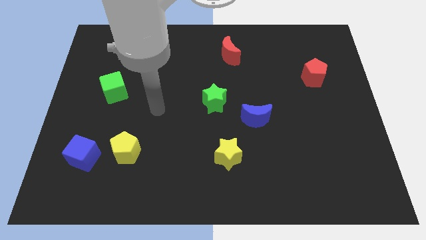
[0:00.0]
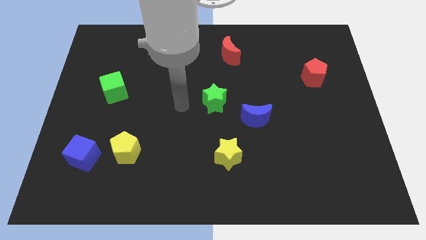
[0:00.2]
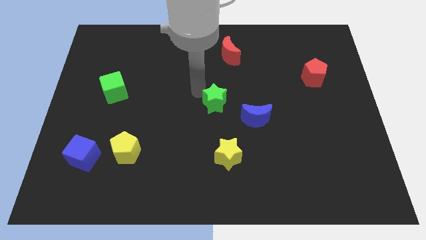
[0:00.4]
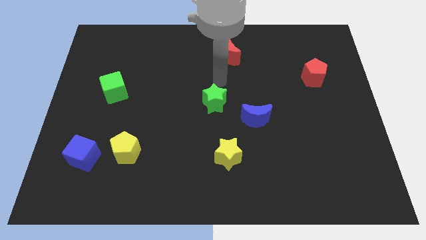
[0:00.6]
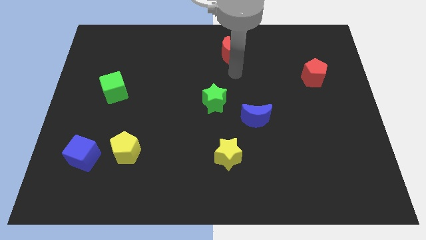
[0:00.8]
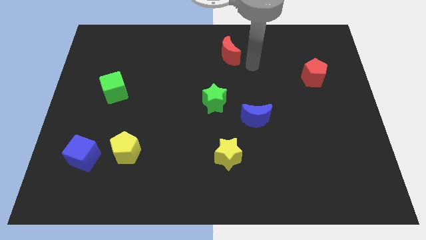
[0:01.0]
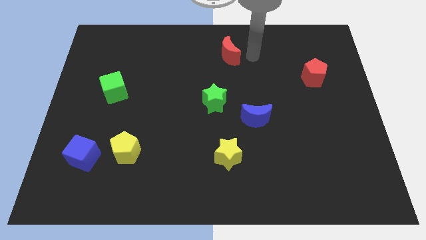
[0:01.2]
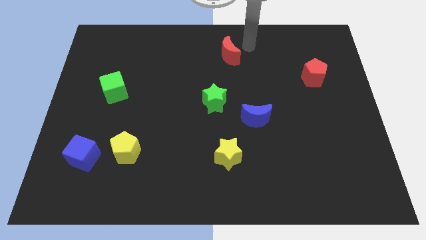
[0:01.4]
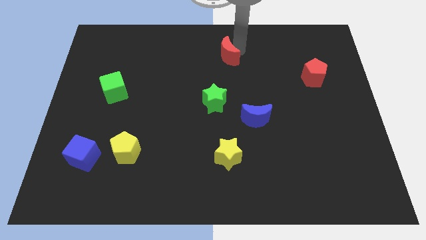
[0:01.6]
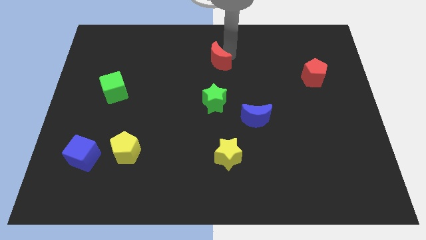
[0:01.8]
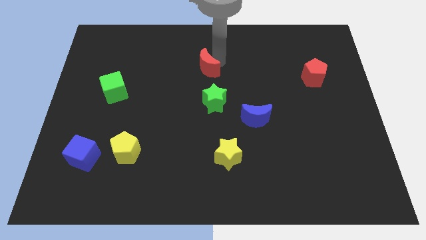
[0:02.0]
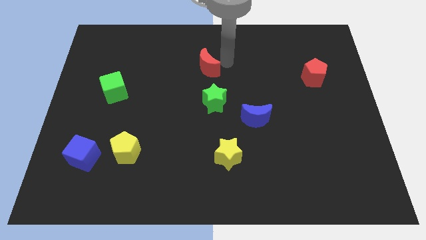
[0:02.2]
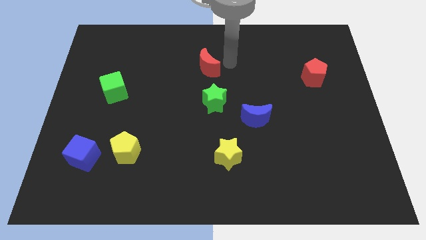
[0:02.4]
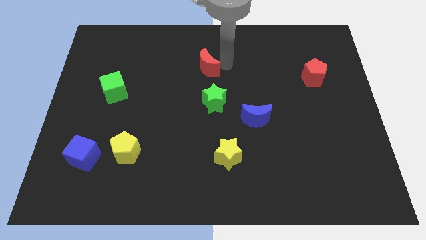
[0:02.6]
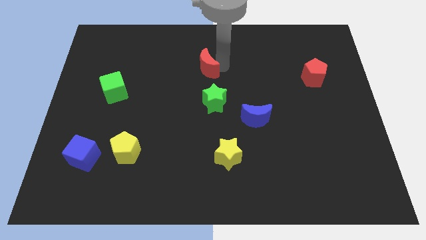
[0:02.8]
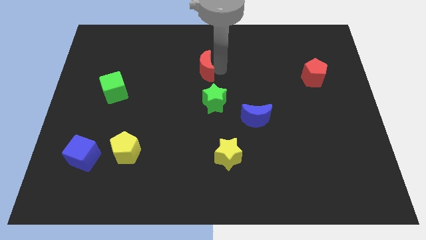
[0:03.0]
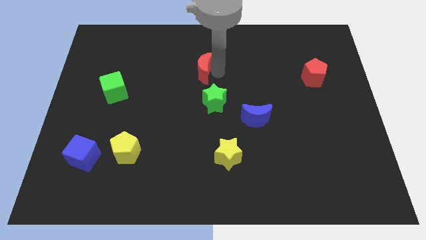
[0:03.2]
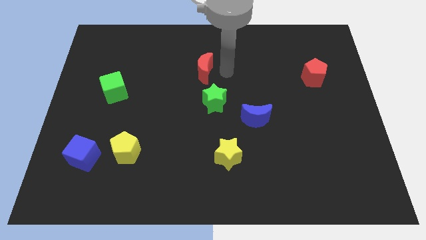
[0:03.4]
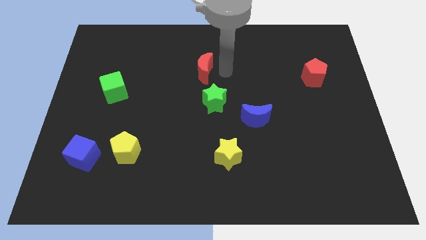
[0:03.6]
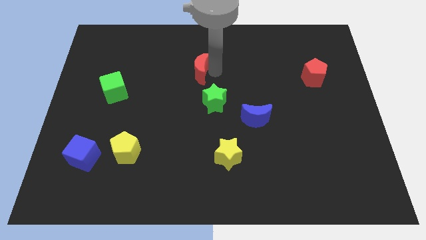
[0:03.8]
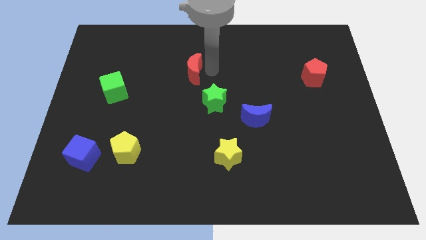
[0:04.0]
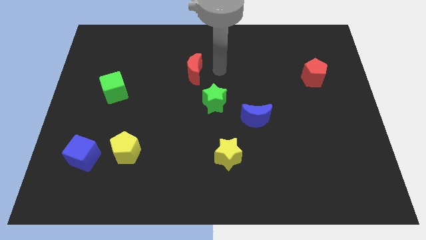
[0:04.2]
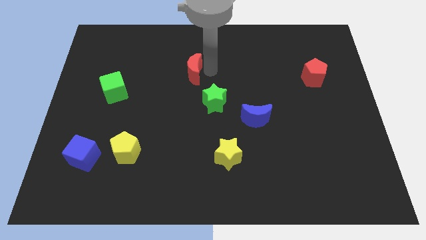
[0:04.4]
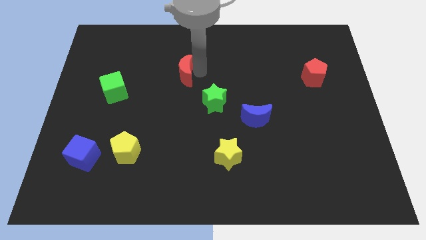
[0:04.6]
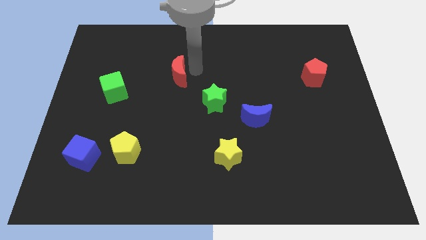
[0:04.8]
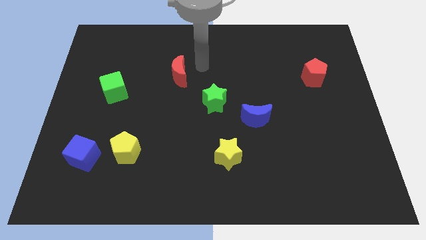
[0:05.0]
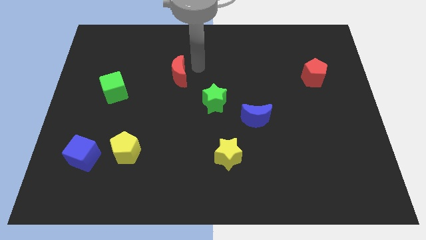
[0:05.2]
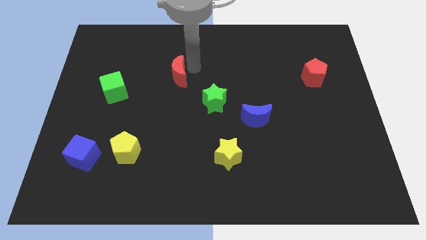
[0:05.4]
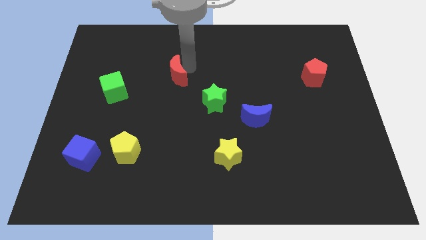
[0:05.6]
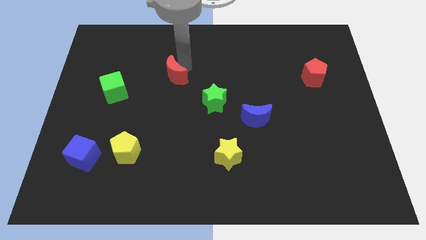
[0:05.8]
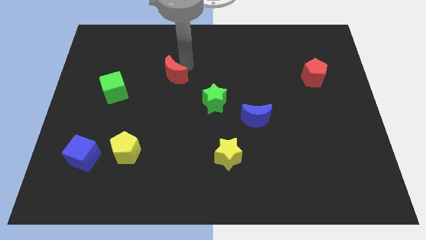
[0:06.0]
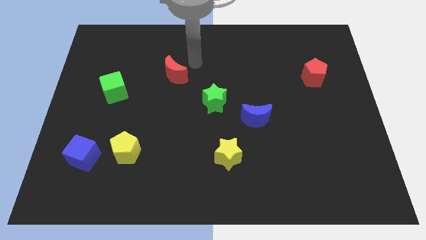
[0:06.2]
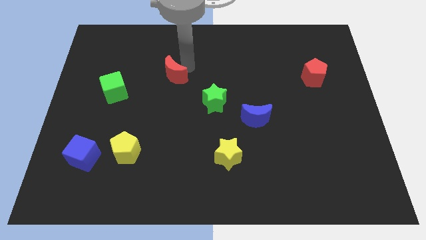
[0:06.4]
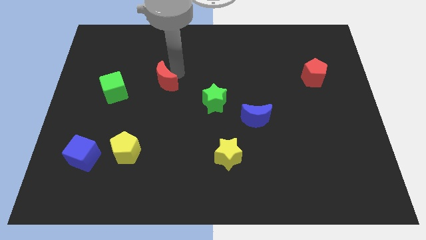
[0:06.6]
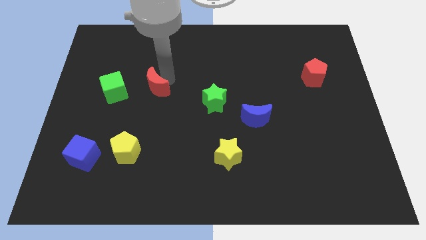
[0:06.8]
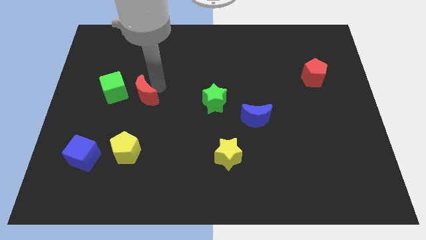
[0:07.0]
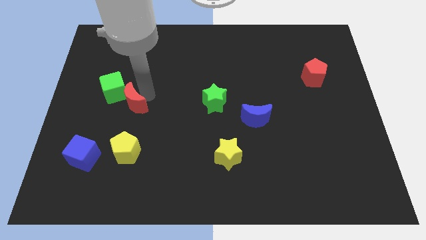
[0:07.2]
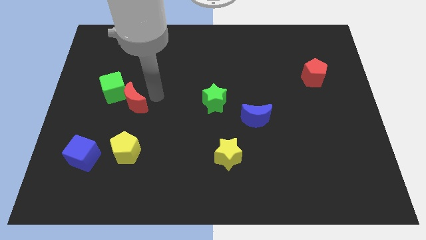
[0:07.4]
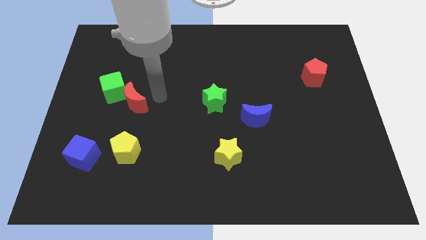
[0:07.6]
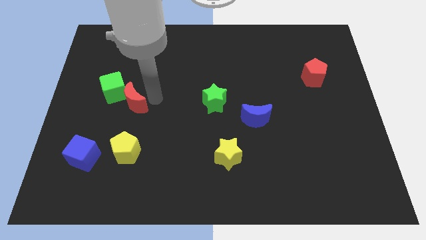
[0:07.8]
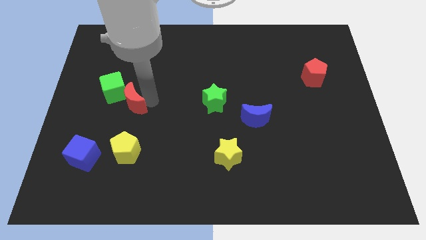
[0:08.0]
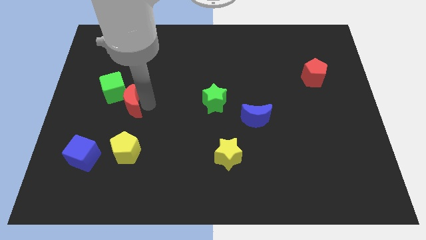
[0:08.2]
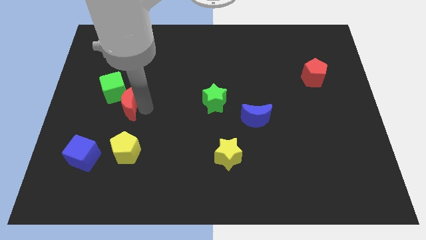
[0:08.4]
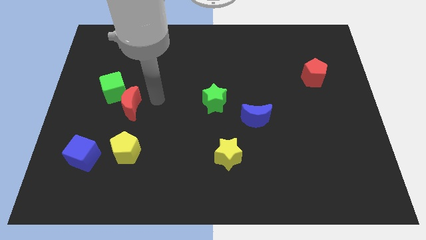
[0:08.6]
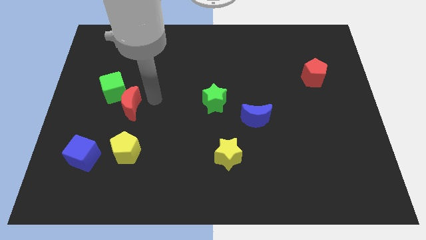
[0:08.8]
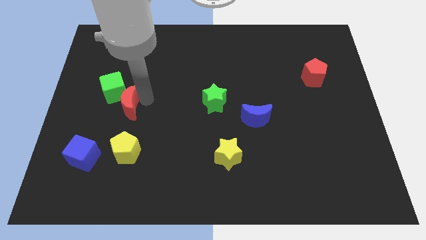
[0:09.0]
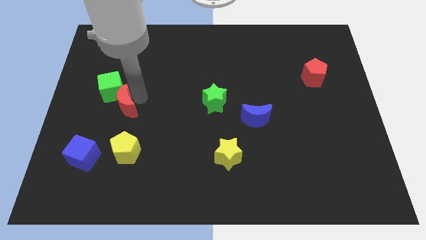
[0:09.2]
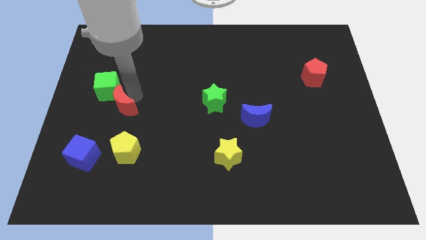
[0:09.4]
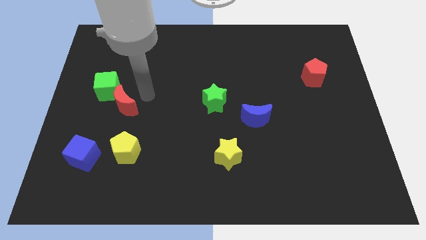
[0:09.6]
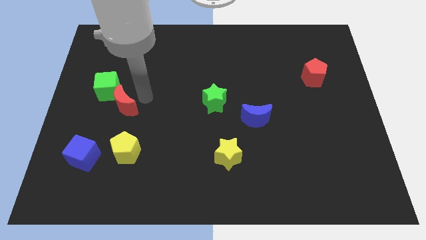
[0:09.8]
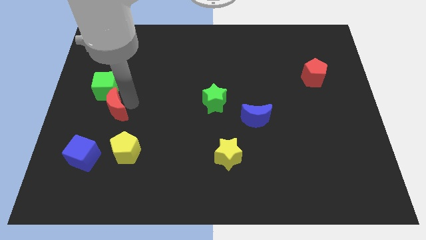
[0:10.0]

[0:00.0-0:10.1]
push the red moon above the blue cube

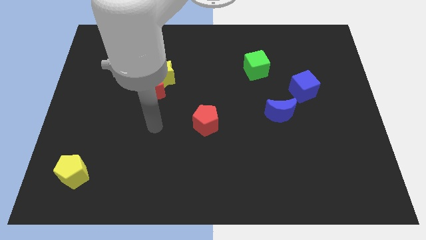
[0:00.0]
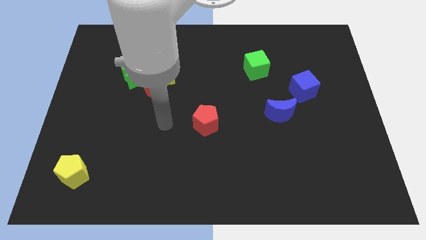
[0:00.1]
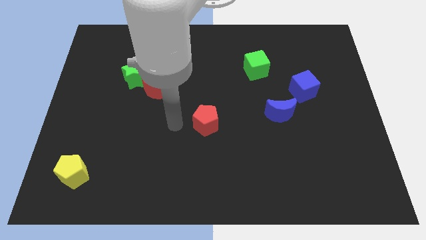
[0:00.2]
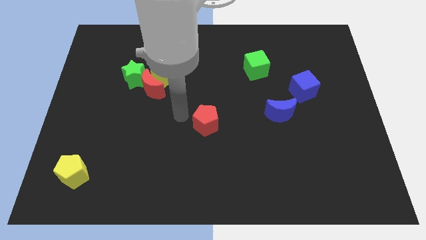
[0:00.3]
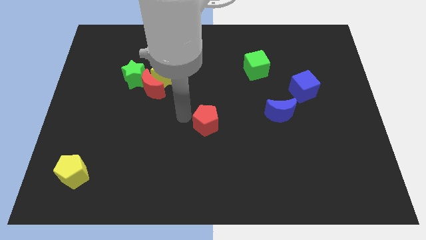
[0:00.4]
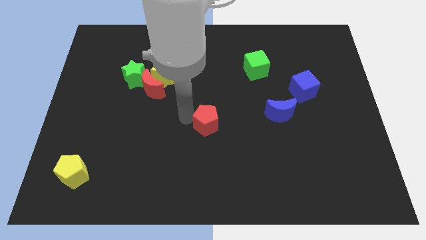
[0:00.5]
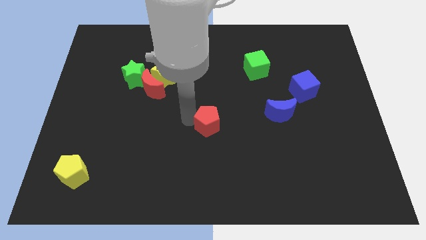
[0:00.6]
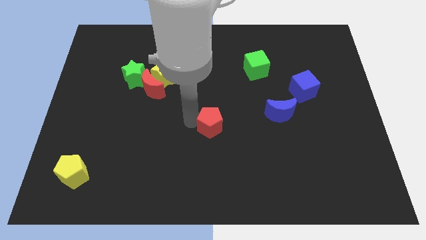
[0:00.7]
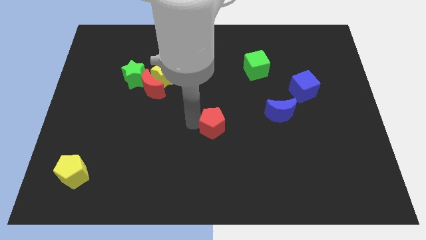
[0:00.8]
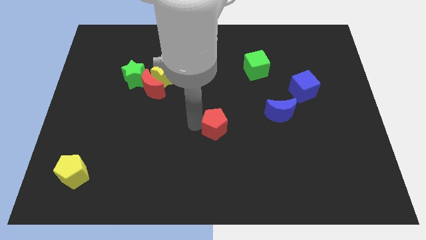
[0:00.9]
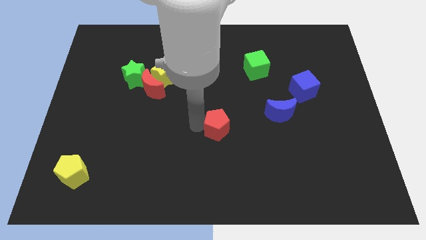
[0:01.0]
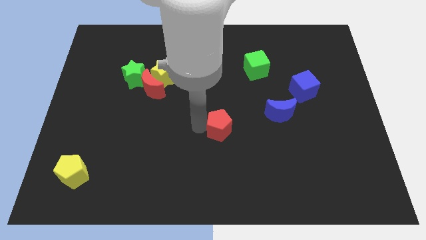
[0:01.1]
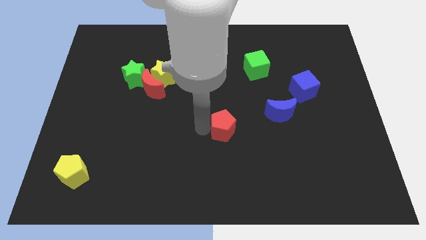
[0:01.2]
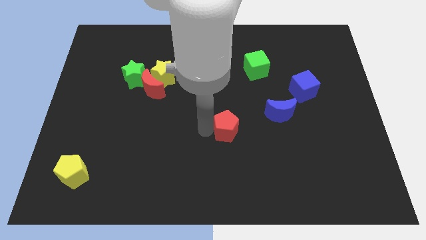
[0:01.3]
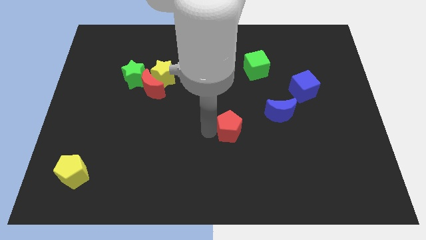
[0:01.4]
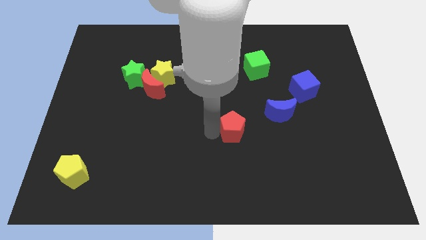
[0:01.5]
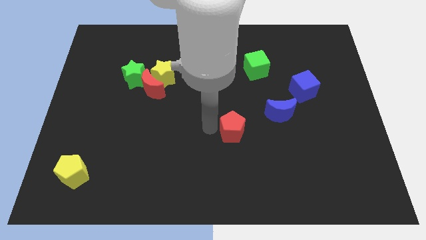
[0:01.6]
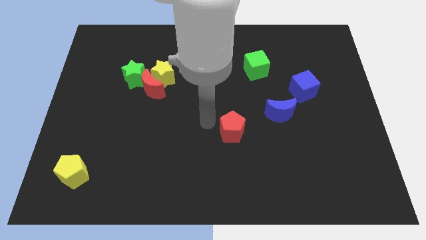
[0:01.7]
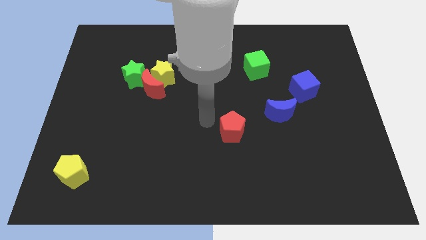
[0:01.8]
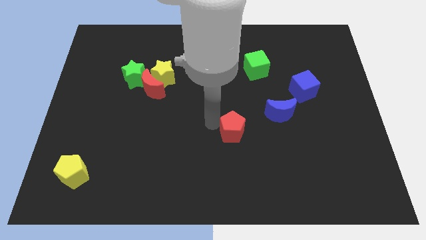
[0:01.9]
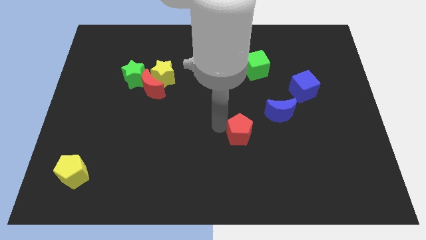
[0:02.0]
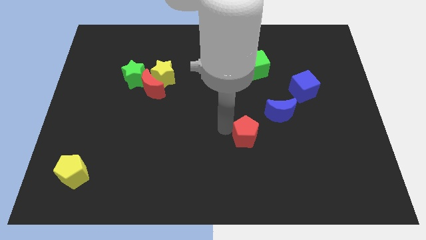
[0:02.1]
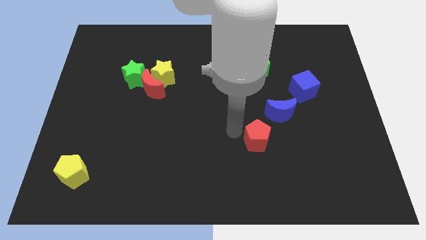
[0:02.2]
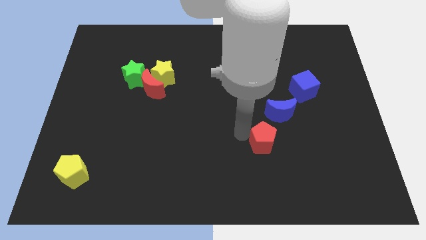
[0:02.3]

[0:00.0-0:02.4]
push the red pentagon to the bottom side of the blue moon
